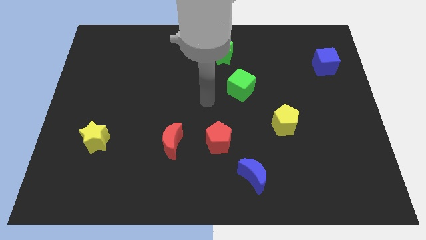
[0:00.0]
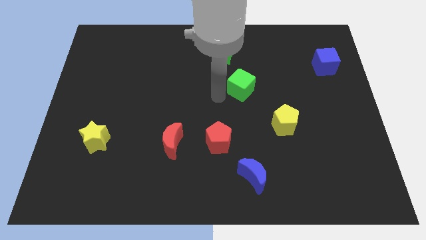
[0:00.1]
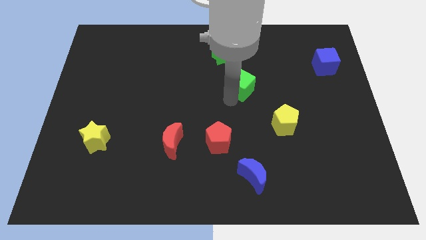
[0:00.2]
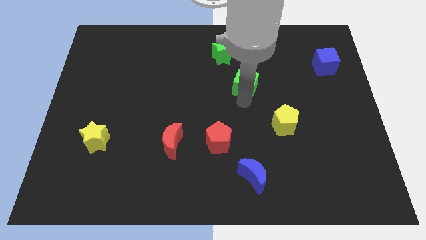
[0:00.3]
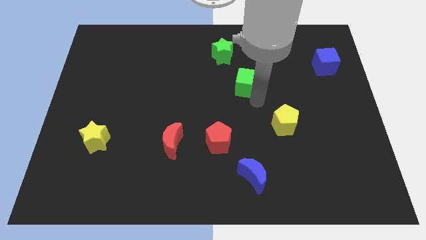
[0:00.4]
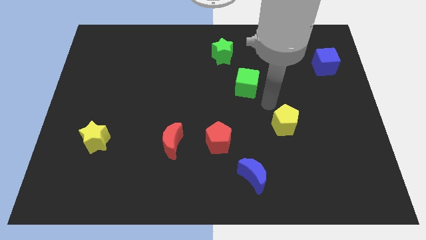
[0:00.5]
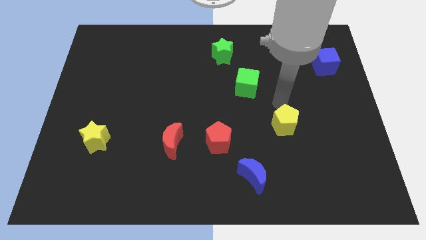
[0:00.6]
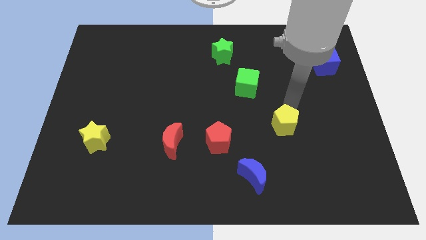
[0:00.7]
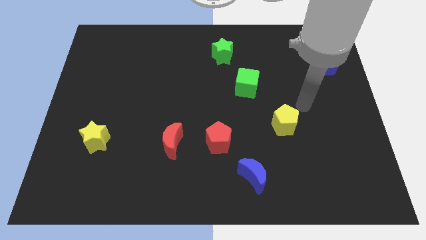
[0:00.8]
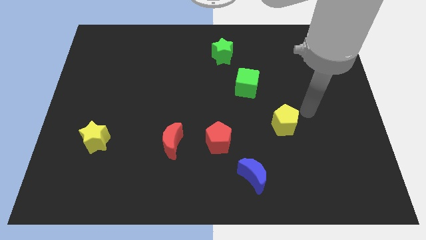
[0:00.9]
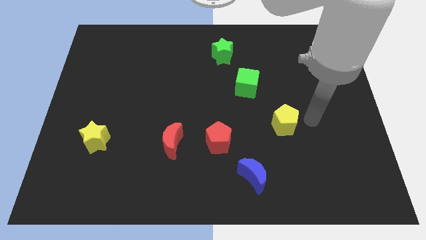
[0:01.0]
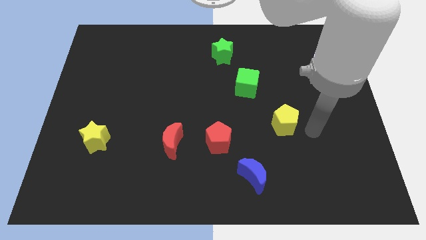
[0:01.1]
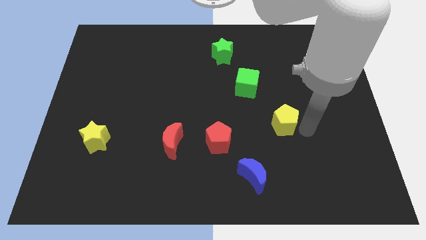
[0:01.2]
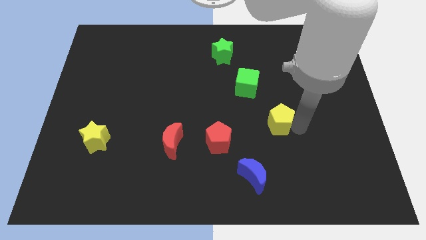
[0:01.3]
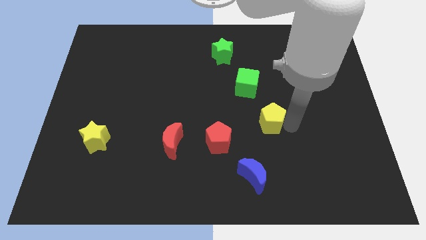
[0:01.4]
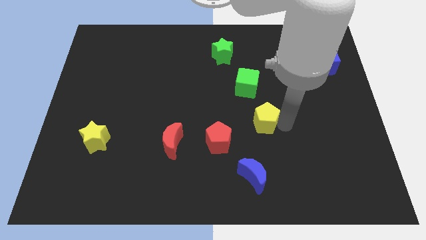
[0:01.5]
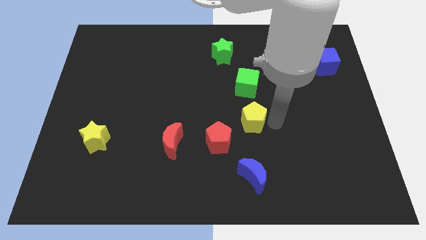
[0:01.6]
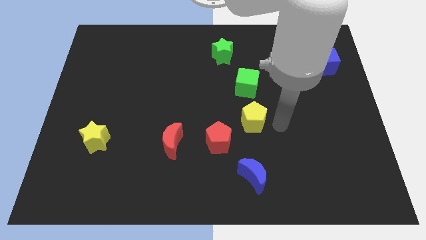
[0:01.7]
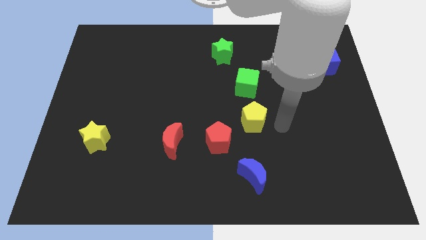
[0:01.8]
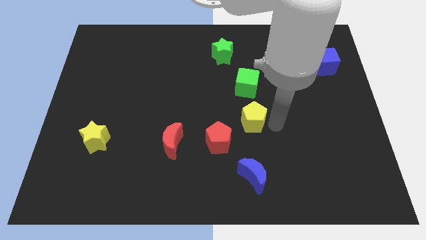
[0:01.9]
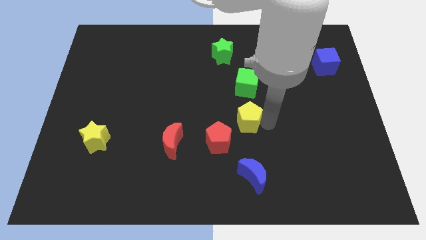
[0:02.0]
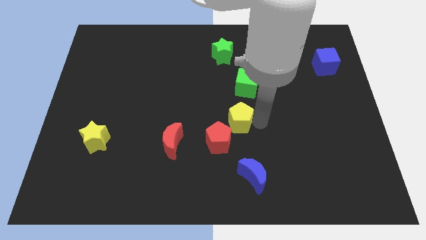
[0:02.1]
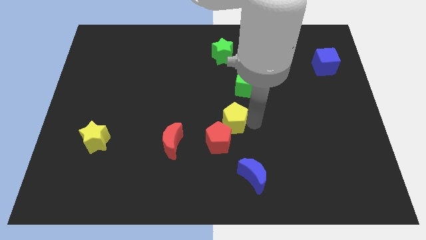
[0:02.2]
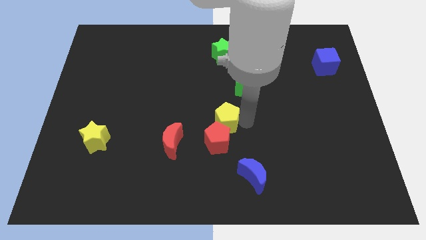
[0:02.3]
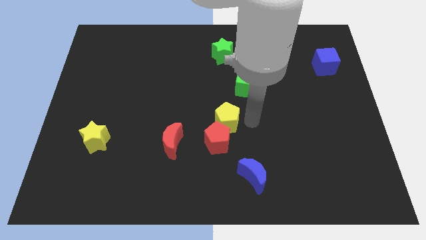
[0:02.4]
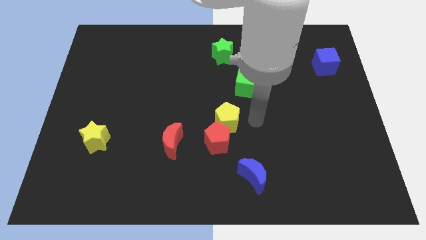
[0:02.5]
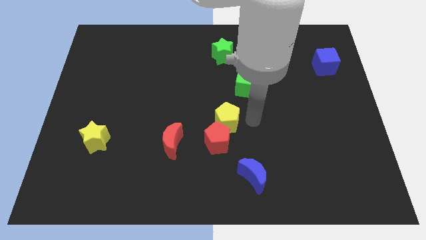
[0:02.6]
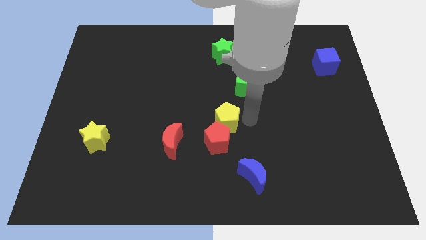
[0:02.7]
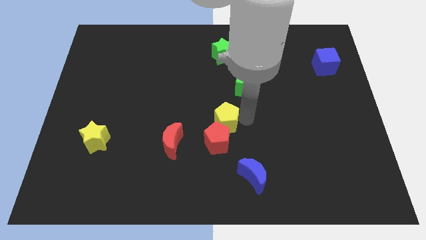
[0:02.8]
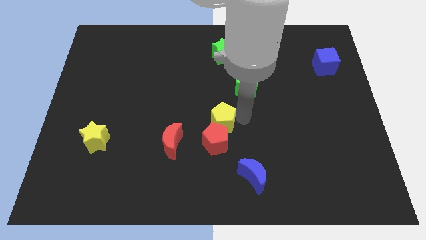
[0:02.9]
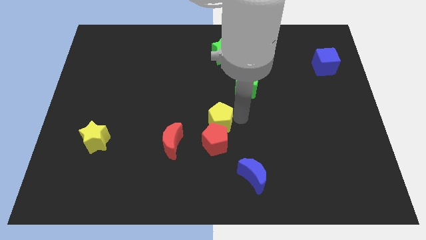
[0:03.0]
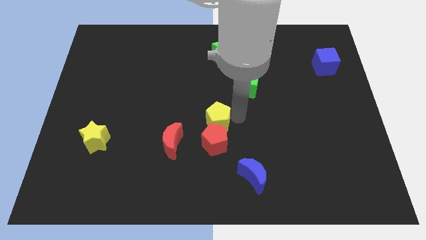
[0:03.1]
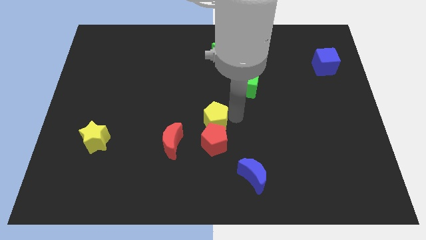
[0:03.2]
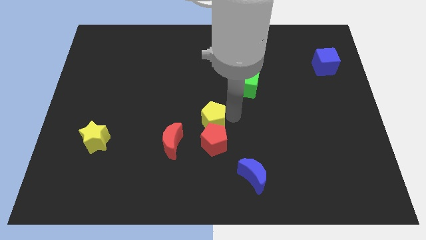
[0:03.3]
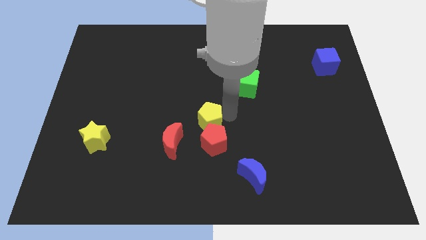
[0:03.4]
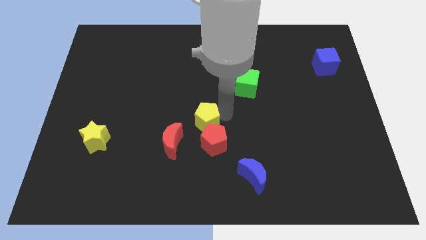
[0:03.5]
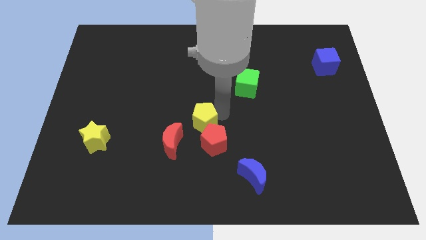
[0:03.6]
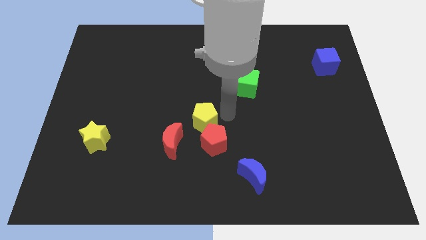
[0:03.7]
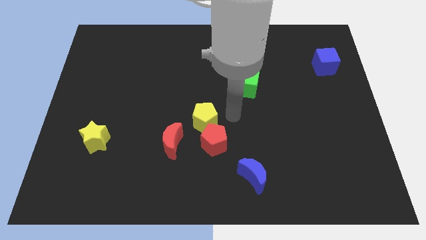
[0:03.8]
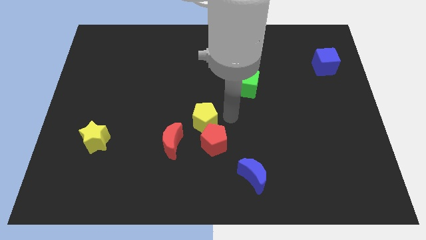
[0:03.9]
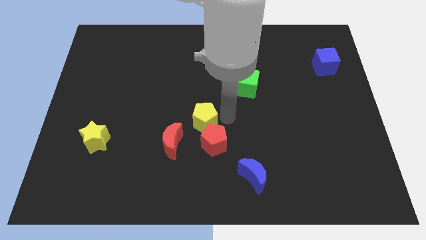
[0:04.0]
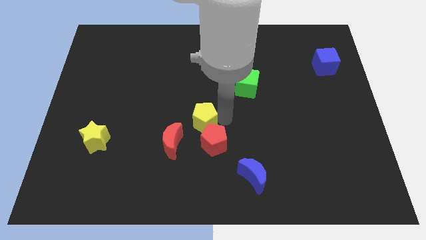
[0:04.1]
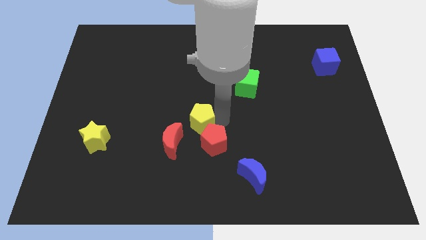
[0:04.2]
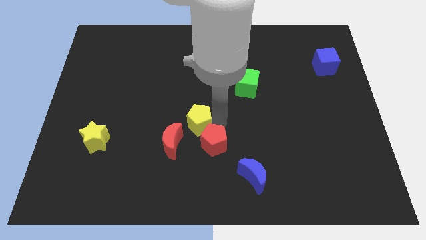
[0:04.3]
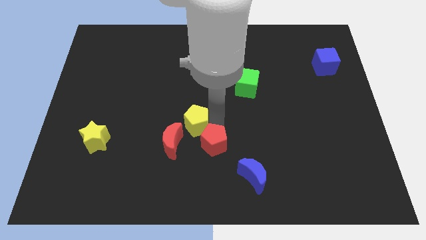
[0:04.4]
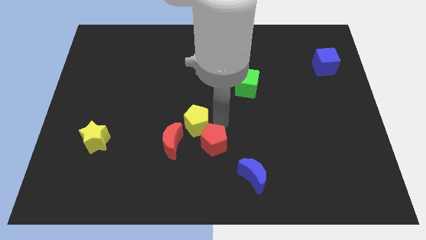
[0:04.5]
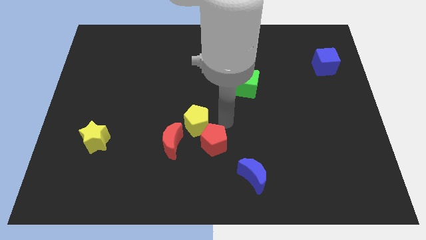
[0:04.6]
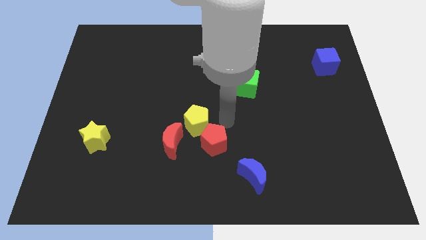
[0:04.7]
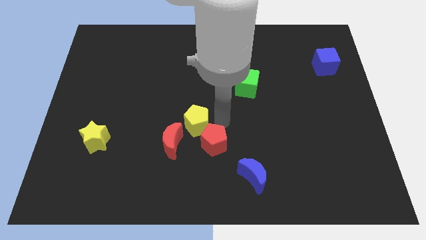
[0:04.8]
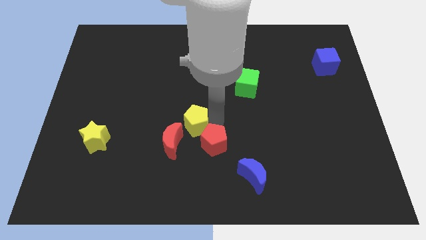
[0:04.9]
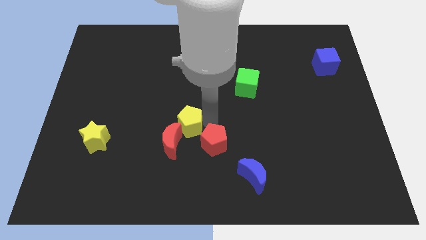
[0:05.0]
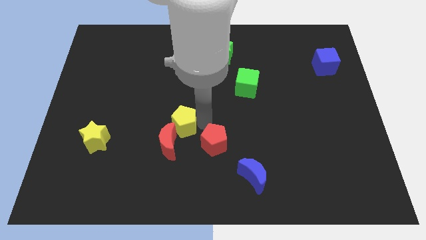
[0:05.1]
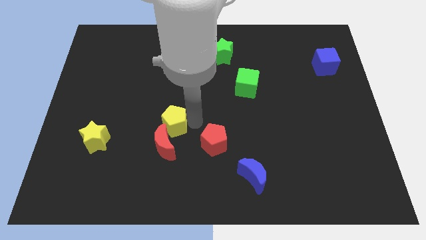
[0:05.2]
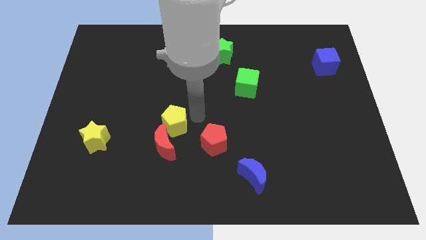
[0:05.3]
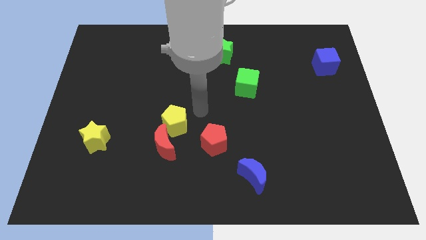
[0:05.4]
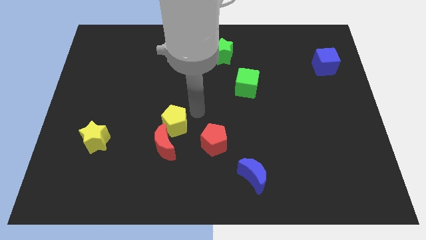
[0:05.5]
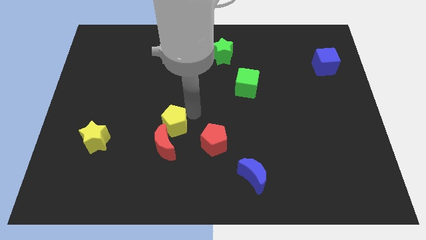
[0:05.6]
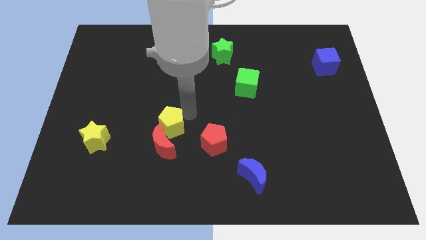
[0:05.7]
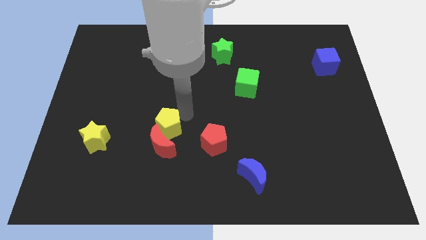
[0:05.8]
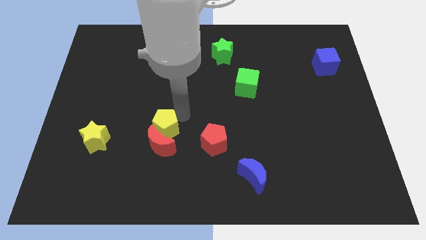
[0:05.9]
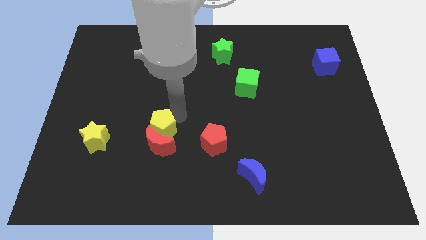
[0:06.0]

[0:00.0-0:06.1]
slide the yellow pentagon just right of the yellow star

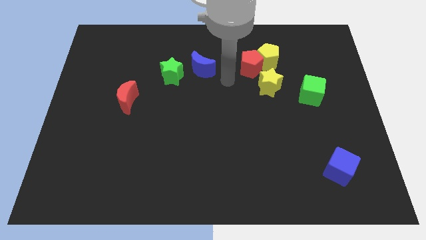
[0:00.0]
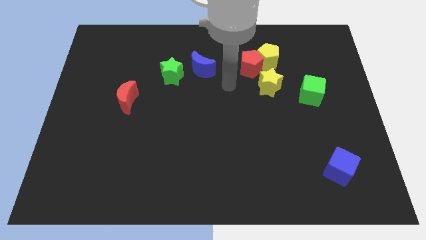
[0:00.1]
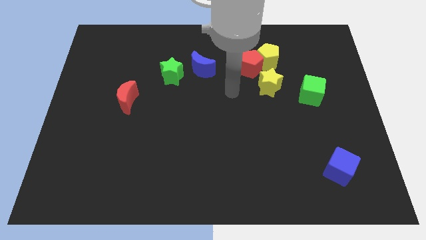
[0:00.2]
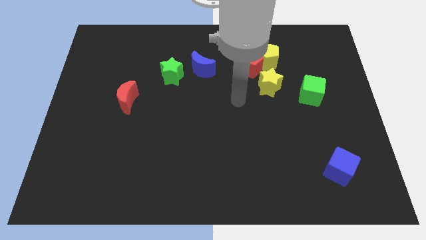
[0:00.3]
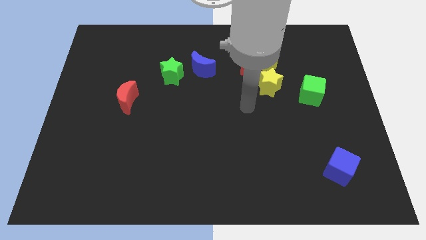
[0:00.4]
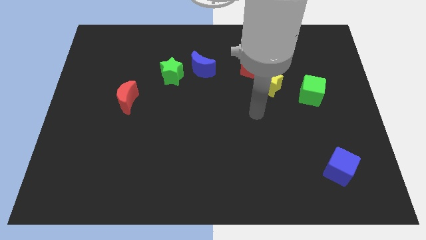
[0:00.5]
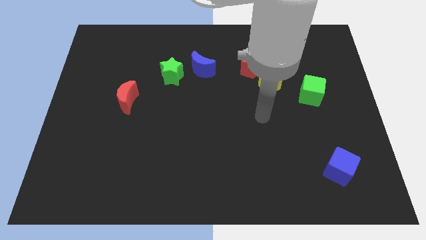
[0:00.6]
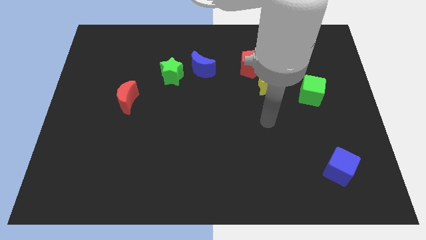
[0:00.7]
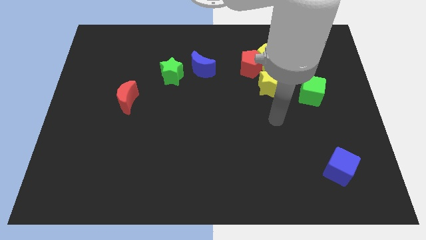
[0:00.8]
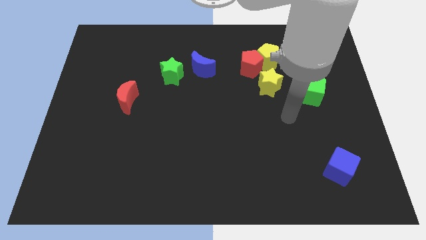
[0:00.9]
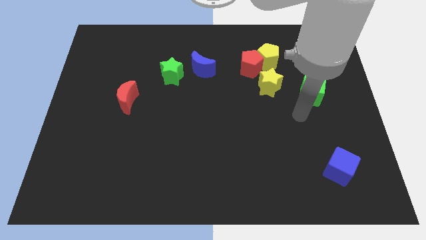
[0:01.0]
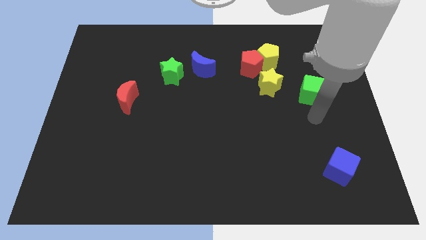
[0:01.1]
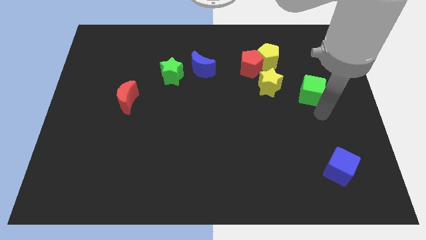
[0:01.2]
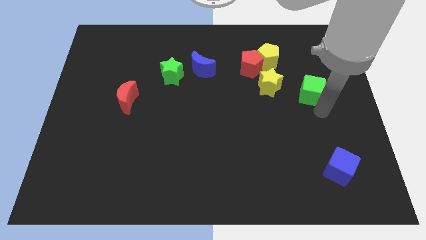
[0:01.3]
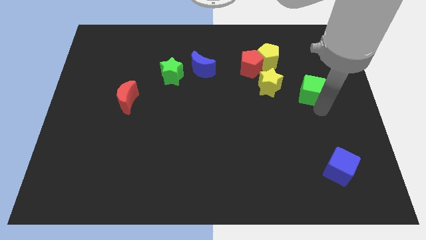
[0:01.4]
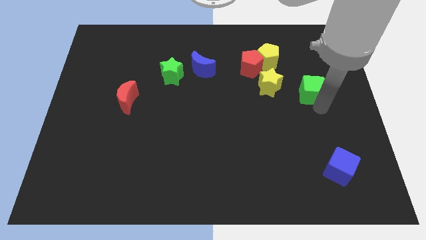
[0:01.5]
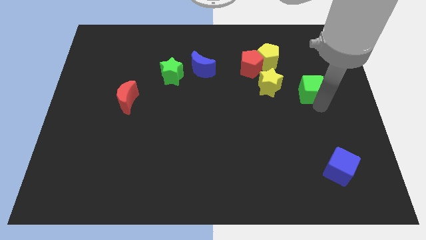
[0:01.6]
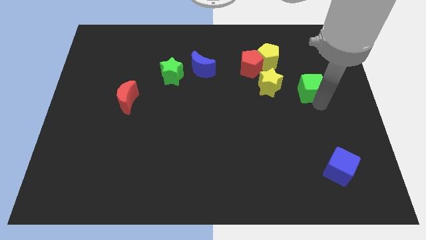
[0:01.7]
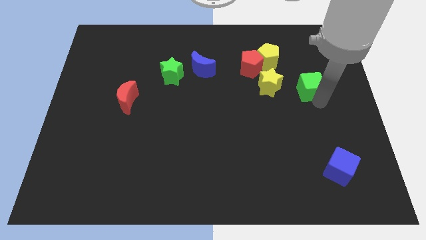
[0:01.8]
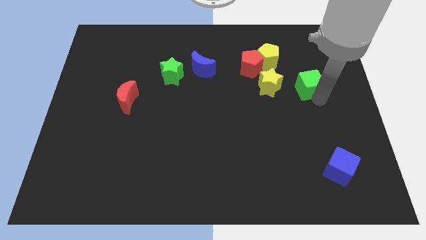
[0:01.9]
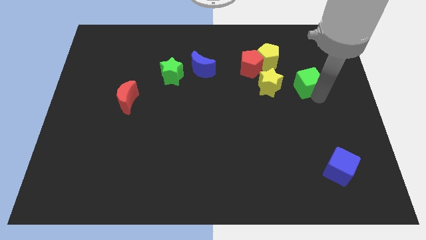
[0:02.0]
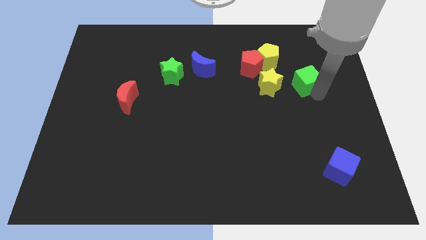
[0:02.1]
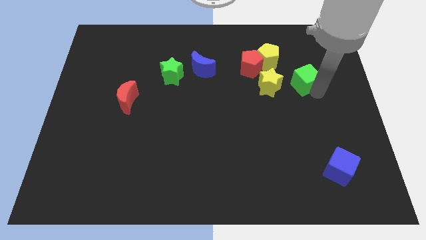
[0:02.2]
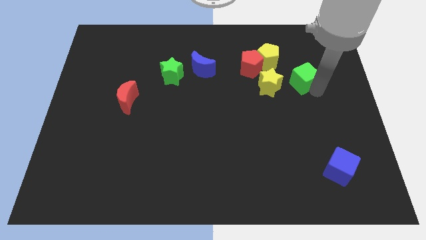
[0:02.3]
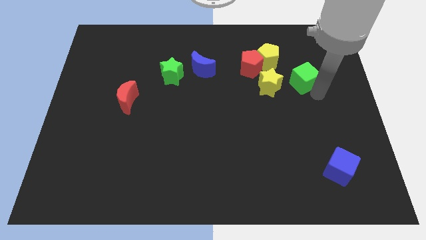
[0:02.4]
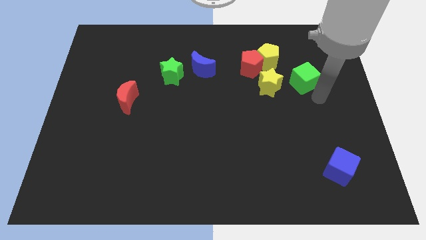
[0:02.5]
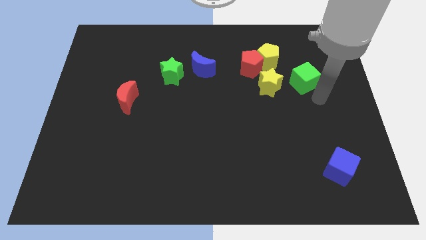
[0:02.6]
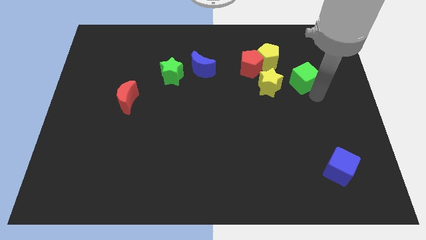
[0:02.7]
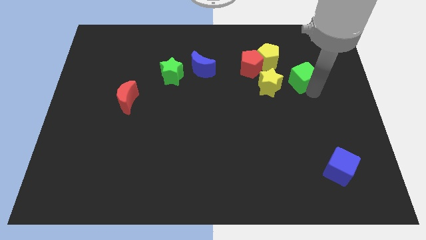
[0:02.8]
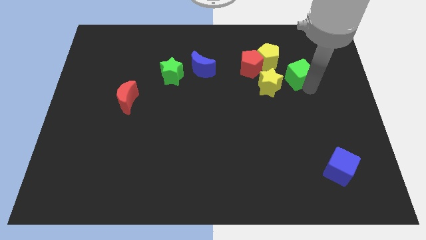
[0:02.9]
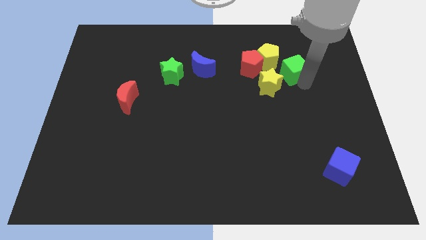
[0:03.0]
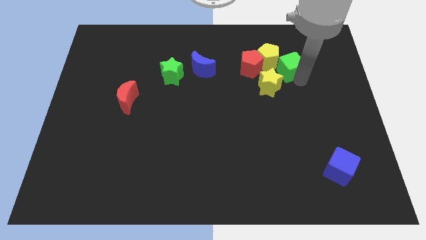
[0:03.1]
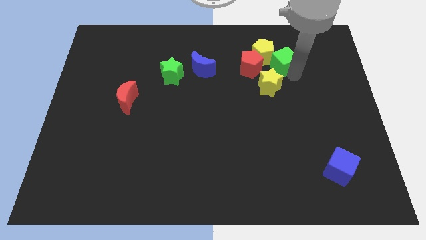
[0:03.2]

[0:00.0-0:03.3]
slide the green cube above the yellow star
